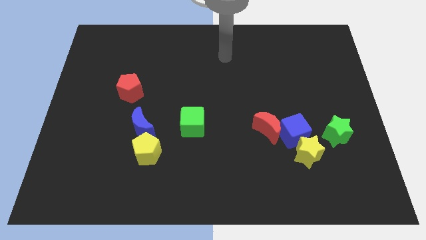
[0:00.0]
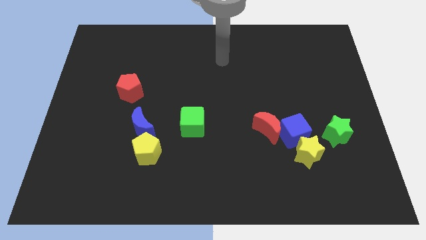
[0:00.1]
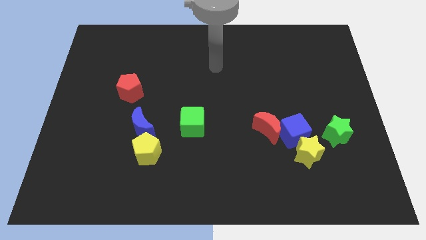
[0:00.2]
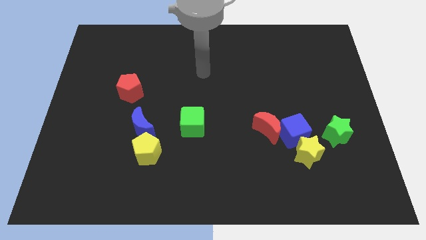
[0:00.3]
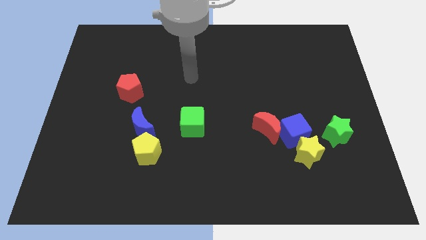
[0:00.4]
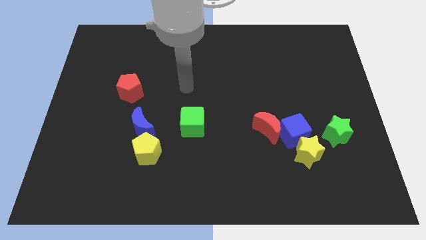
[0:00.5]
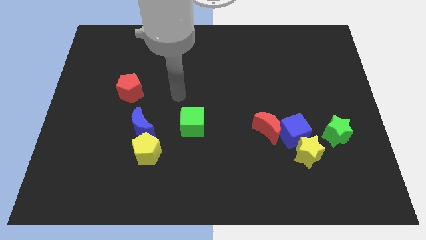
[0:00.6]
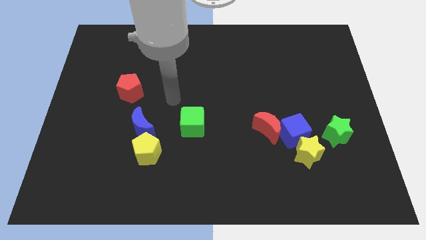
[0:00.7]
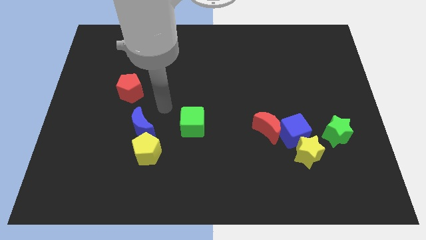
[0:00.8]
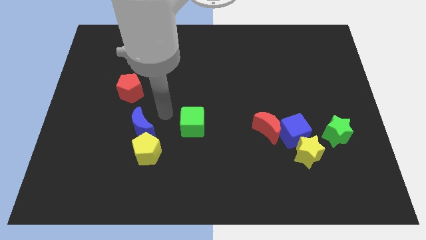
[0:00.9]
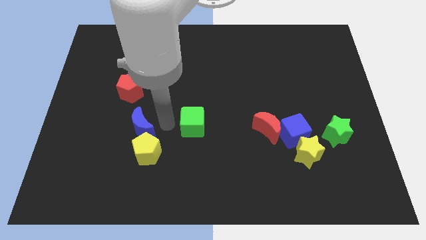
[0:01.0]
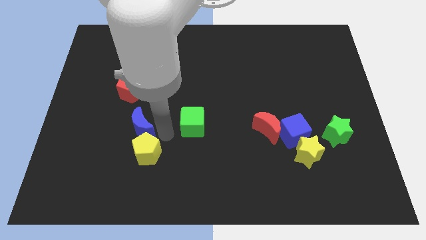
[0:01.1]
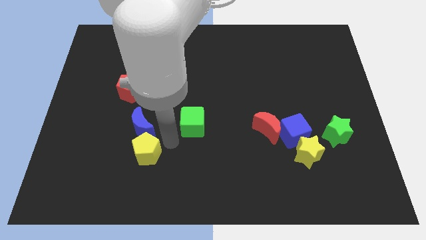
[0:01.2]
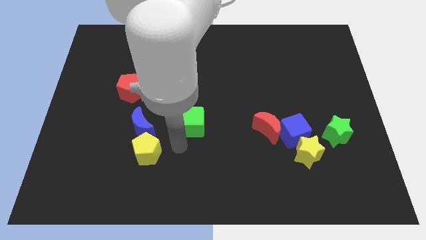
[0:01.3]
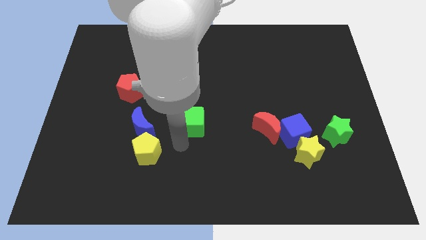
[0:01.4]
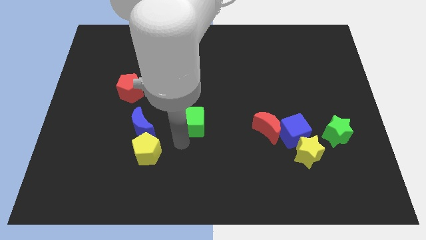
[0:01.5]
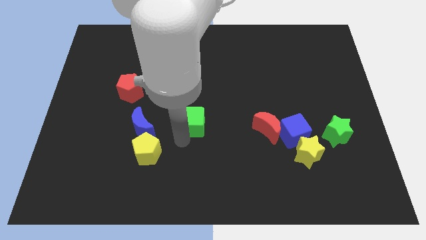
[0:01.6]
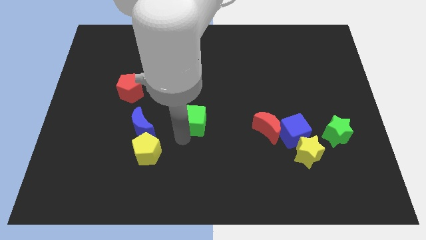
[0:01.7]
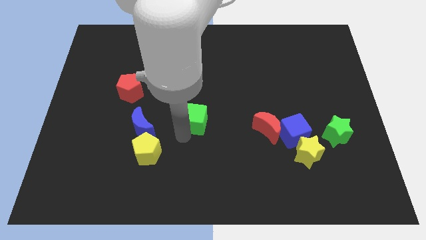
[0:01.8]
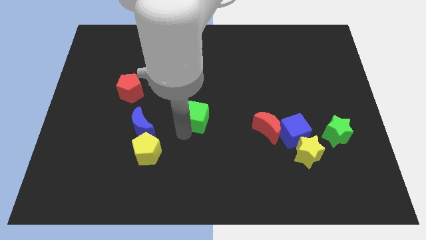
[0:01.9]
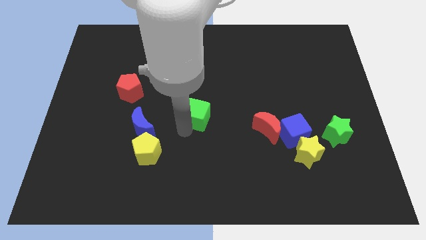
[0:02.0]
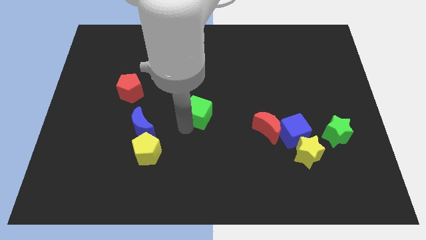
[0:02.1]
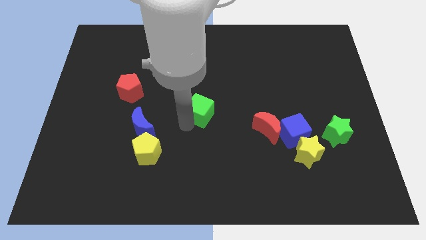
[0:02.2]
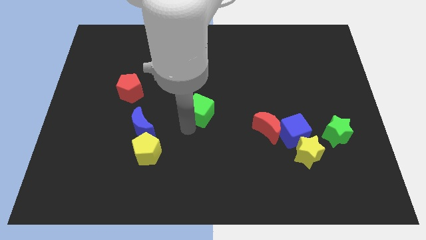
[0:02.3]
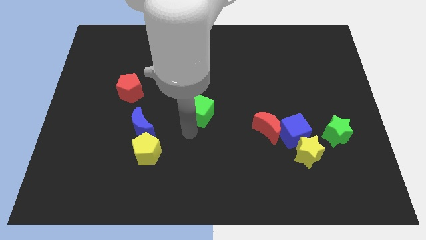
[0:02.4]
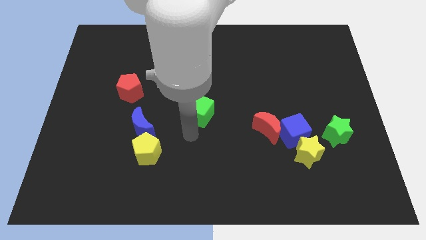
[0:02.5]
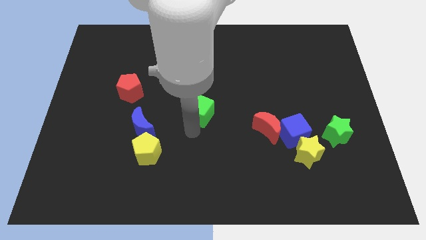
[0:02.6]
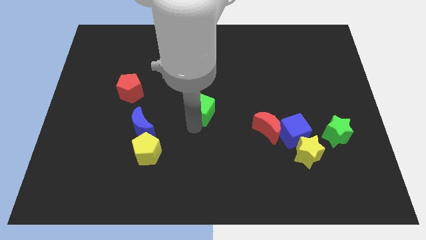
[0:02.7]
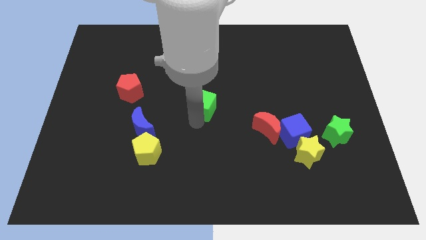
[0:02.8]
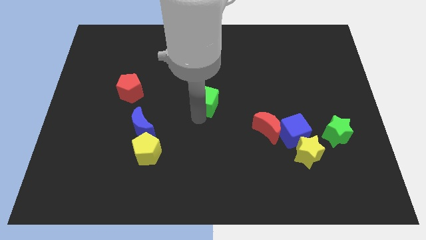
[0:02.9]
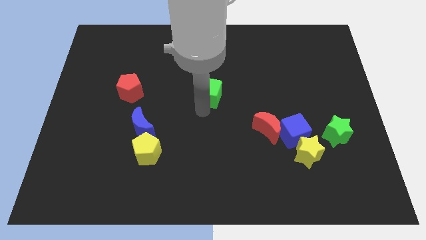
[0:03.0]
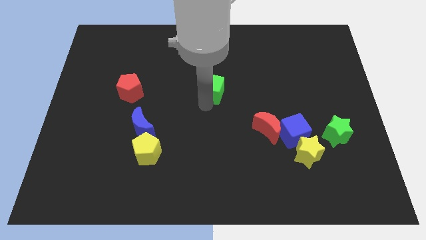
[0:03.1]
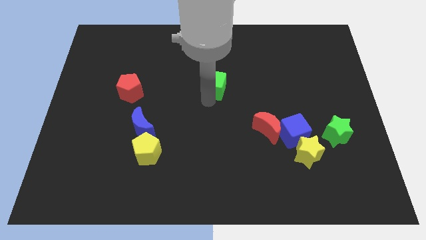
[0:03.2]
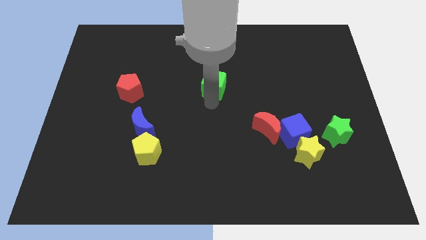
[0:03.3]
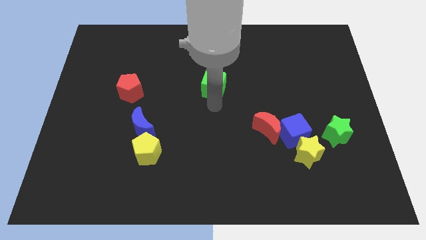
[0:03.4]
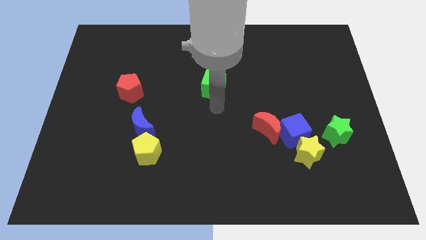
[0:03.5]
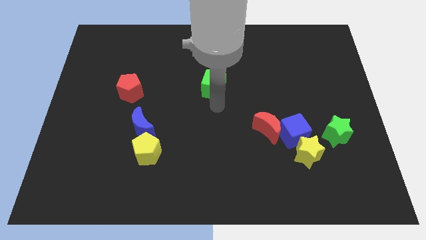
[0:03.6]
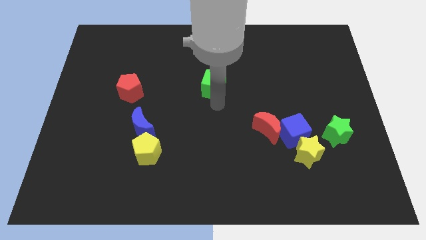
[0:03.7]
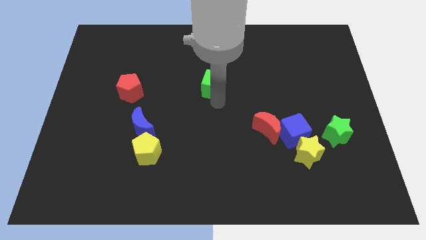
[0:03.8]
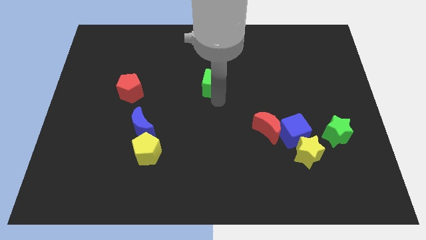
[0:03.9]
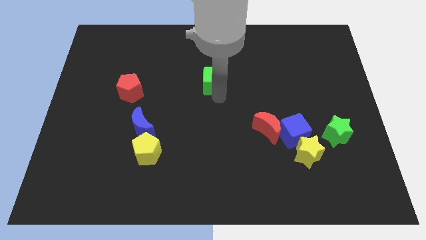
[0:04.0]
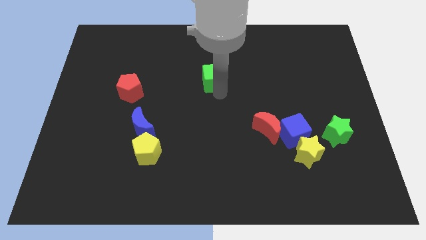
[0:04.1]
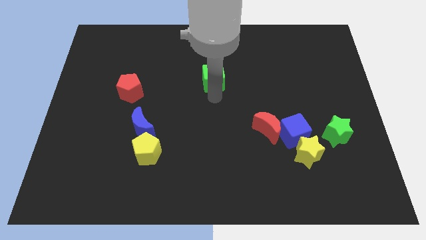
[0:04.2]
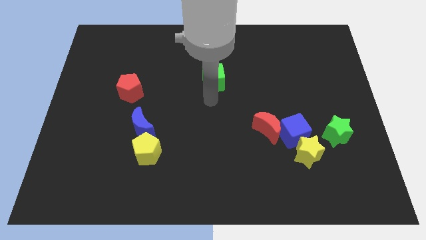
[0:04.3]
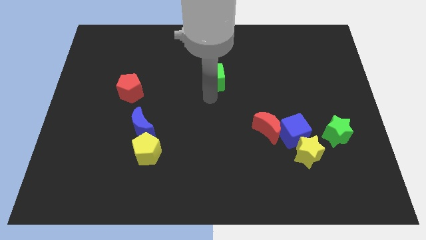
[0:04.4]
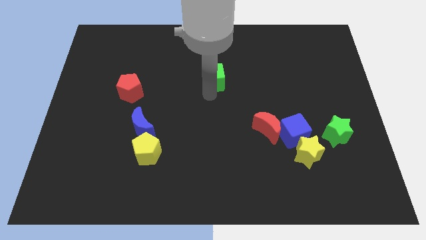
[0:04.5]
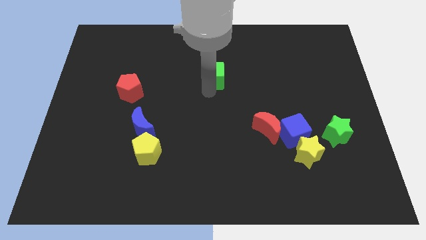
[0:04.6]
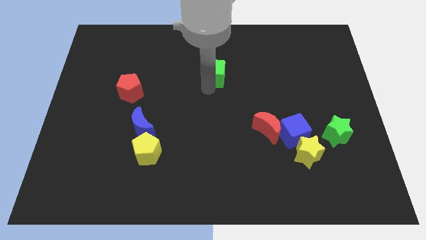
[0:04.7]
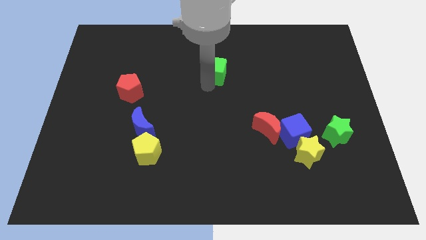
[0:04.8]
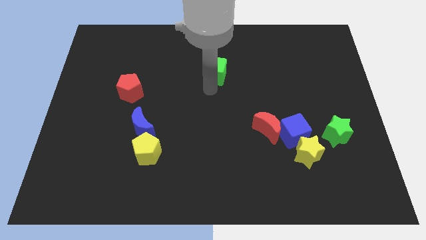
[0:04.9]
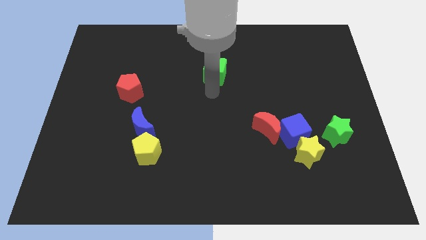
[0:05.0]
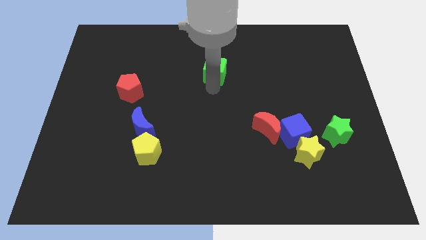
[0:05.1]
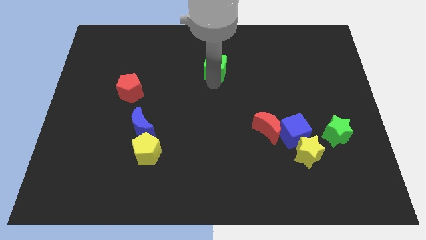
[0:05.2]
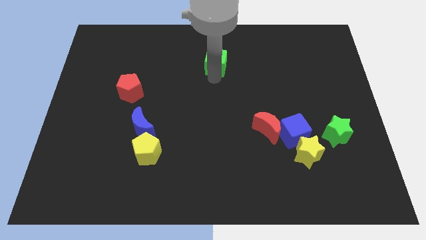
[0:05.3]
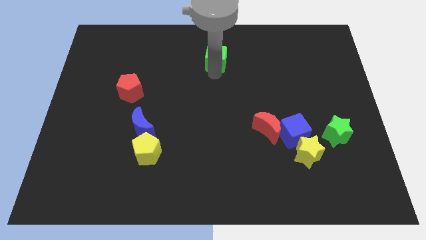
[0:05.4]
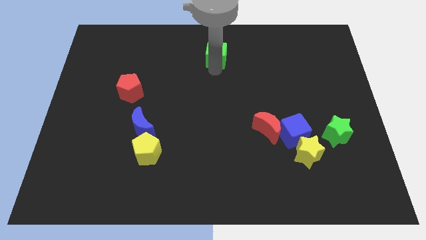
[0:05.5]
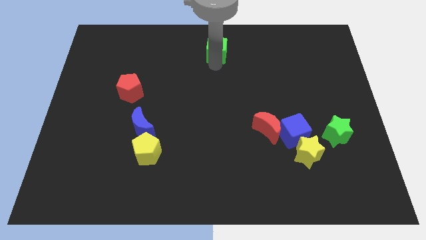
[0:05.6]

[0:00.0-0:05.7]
slide the green cube to the towards your base
